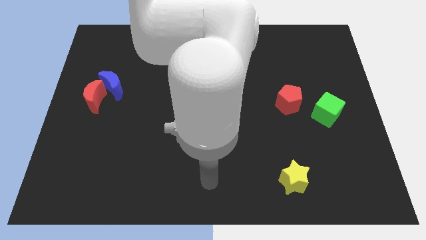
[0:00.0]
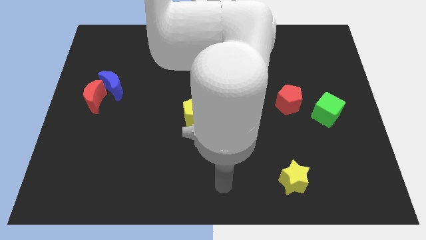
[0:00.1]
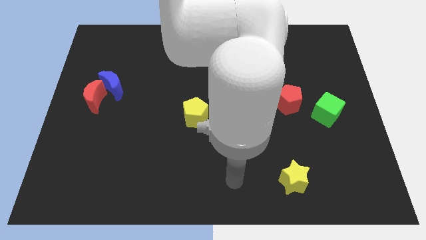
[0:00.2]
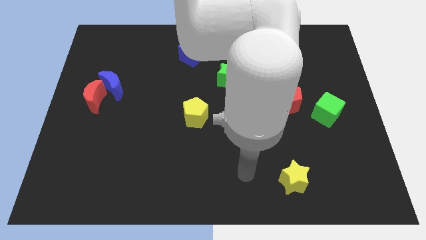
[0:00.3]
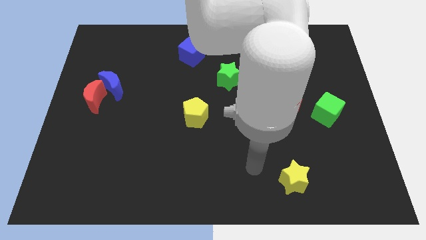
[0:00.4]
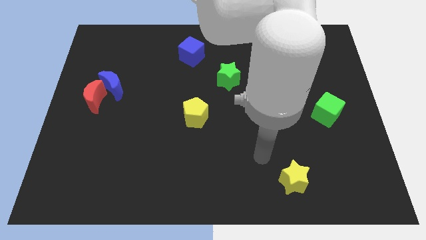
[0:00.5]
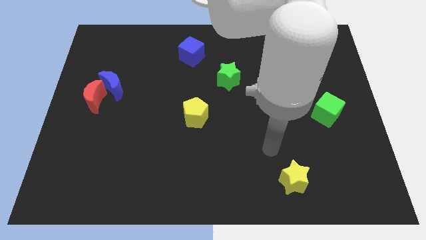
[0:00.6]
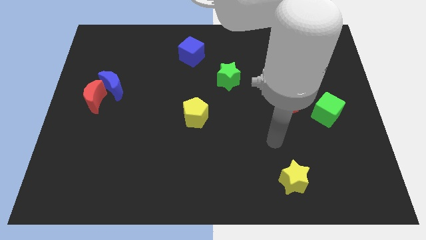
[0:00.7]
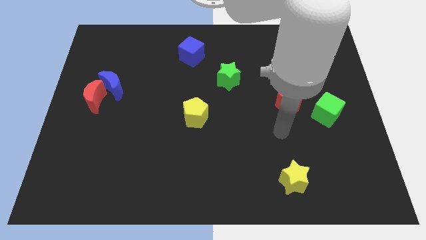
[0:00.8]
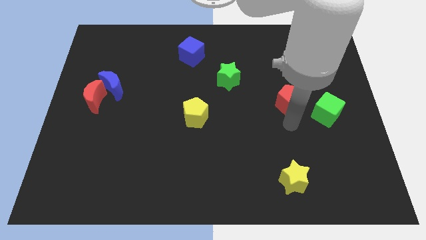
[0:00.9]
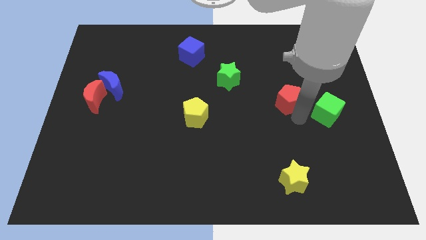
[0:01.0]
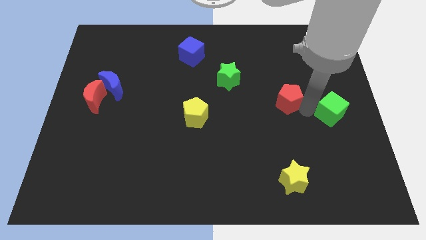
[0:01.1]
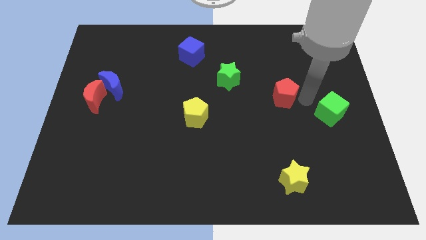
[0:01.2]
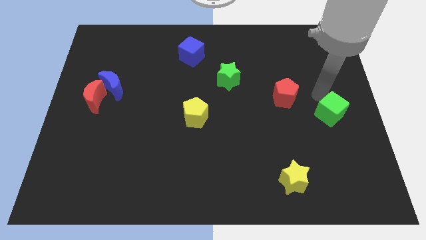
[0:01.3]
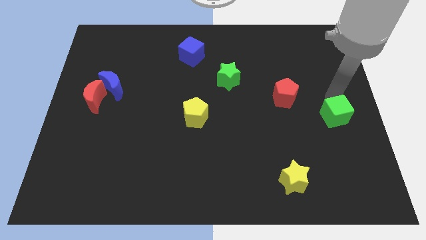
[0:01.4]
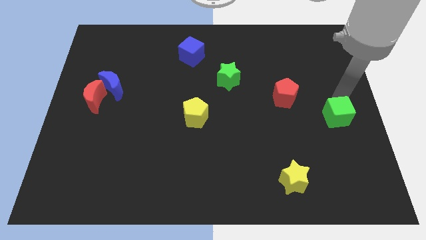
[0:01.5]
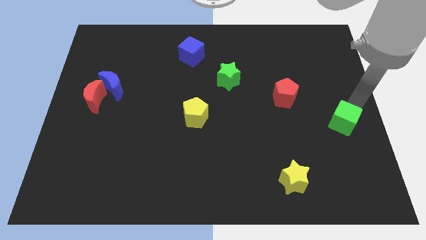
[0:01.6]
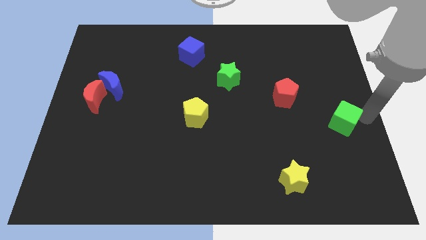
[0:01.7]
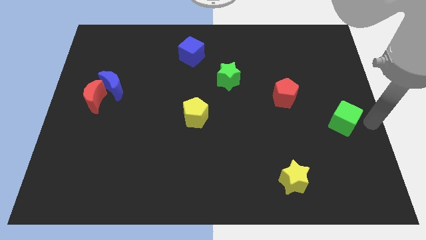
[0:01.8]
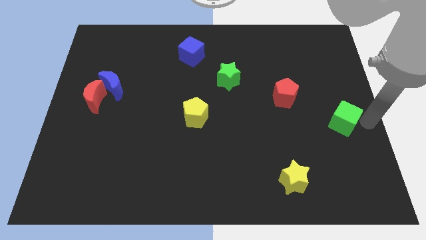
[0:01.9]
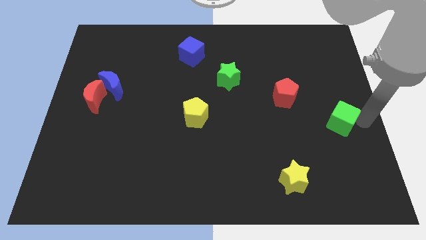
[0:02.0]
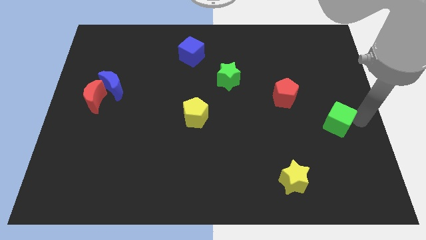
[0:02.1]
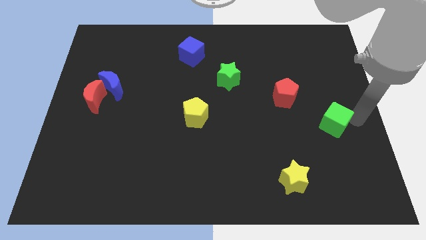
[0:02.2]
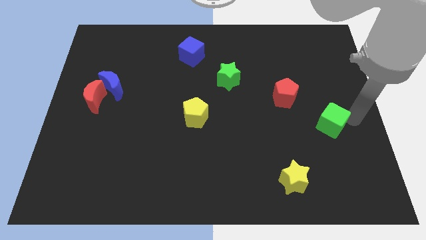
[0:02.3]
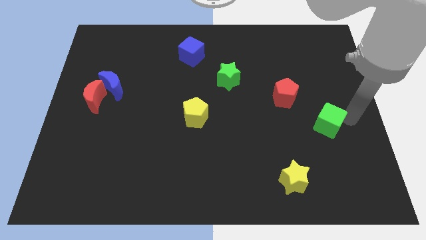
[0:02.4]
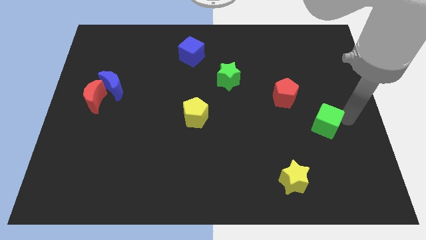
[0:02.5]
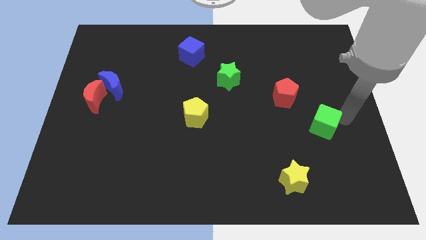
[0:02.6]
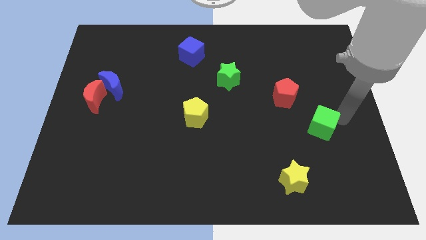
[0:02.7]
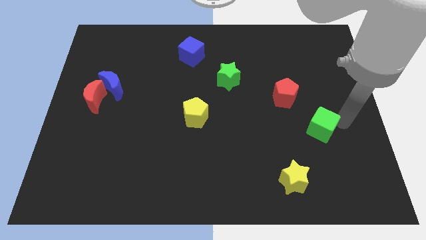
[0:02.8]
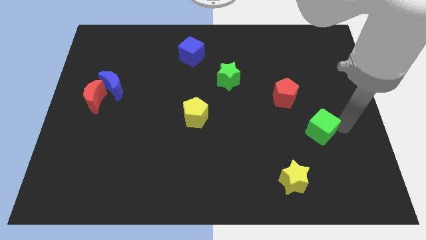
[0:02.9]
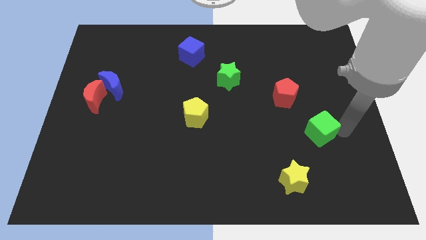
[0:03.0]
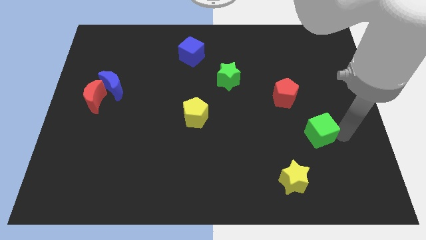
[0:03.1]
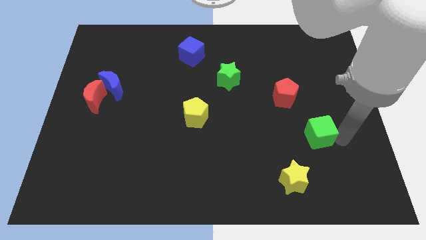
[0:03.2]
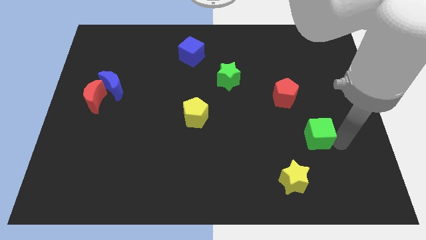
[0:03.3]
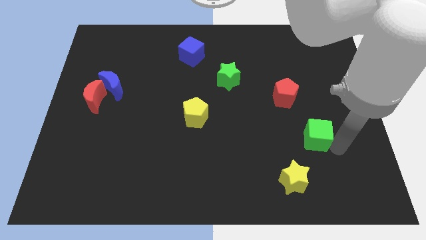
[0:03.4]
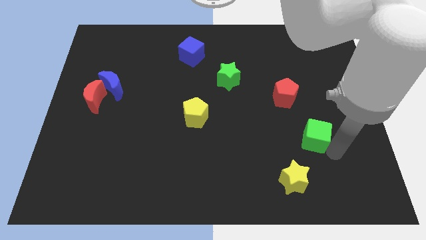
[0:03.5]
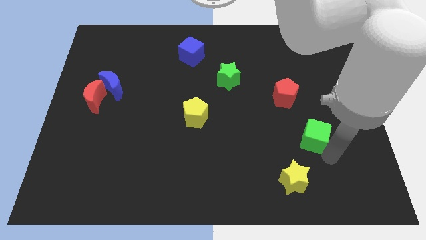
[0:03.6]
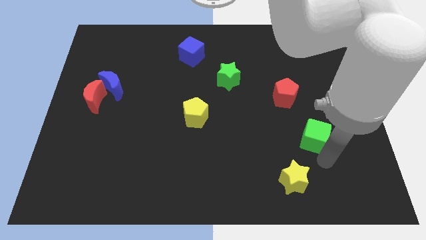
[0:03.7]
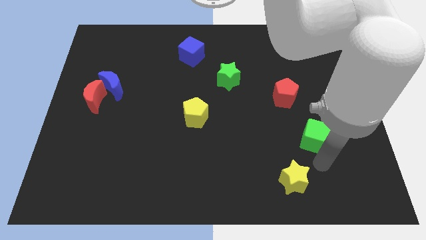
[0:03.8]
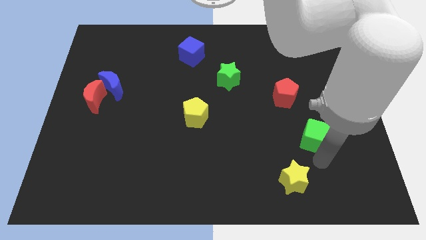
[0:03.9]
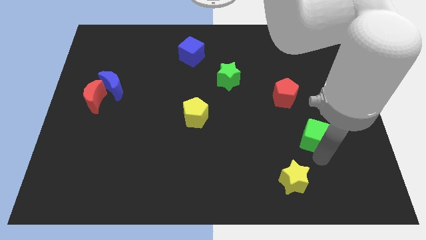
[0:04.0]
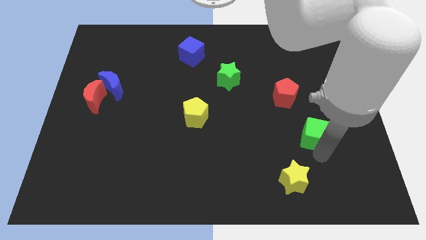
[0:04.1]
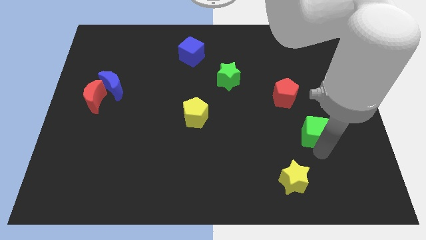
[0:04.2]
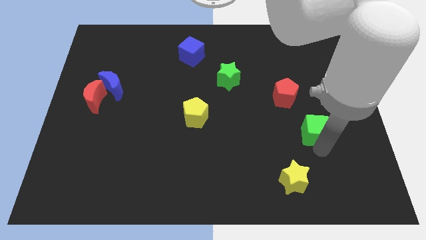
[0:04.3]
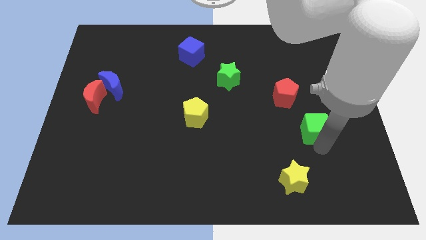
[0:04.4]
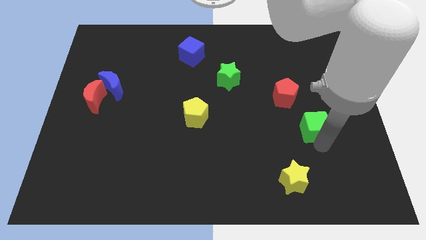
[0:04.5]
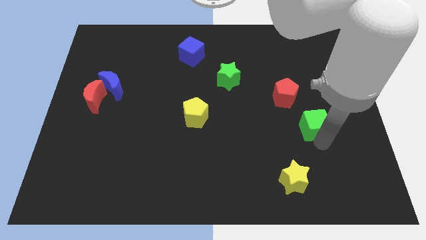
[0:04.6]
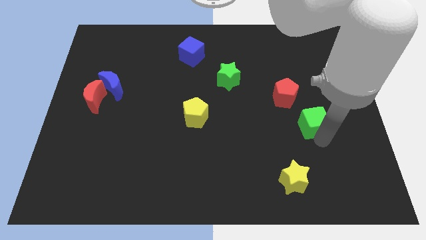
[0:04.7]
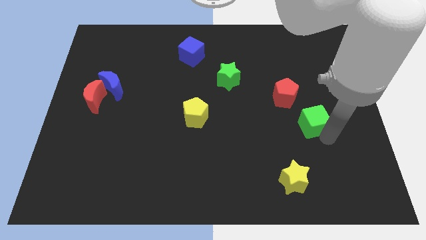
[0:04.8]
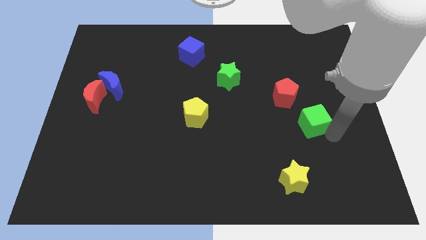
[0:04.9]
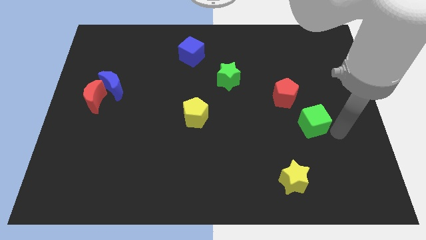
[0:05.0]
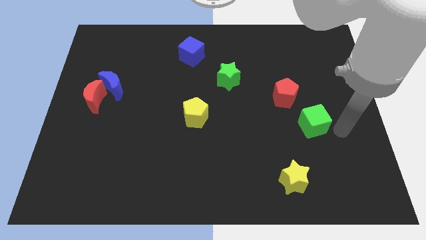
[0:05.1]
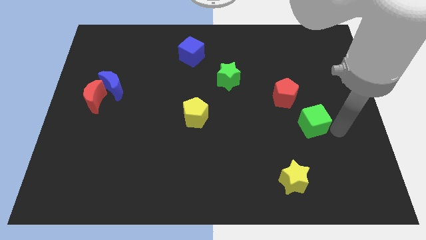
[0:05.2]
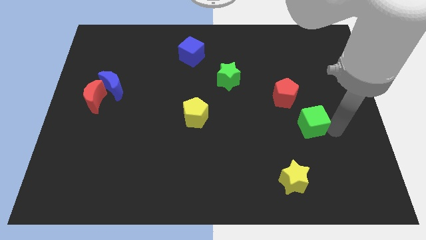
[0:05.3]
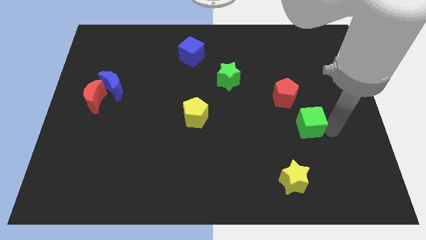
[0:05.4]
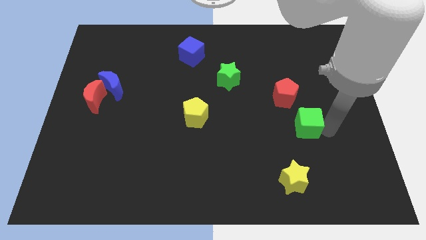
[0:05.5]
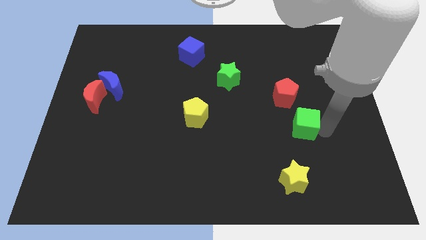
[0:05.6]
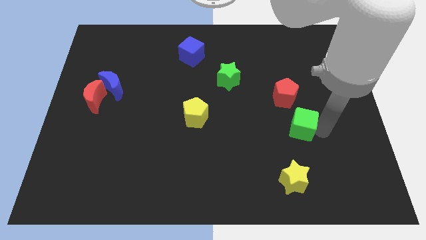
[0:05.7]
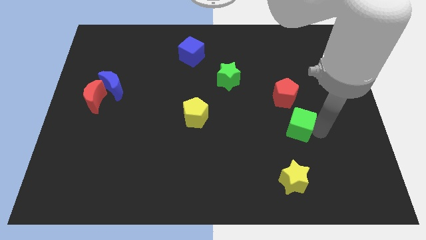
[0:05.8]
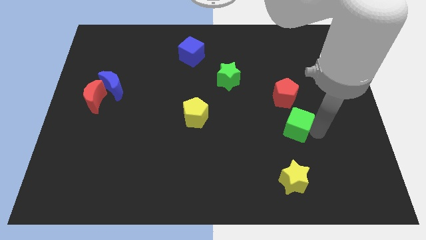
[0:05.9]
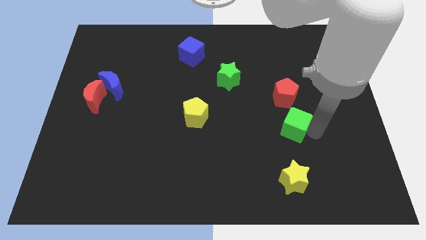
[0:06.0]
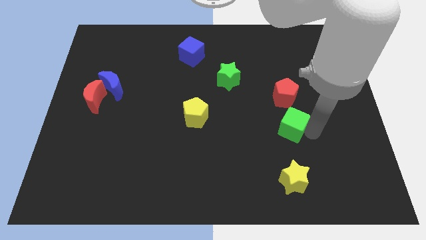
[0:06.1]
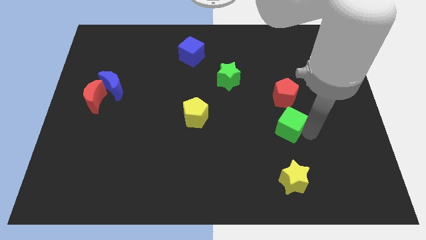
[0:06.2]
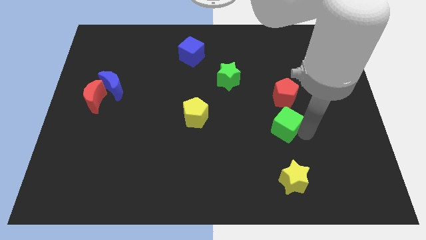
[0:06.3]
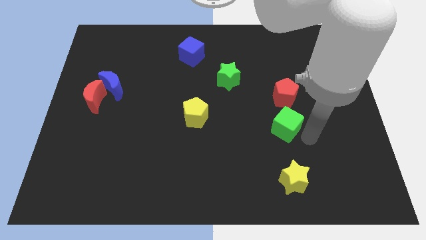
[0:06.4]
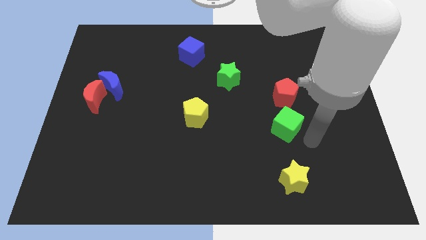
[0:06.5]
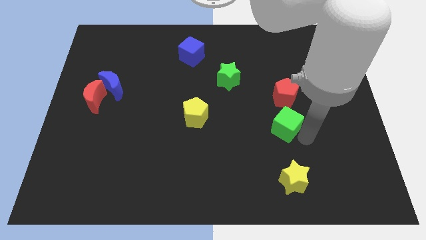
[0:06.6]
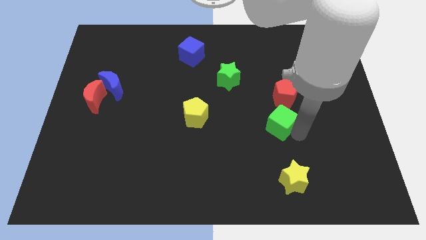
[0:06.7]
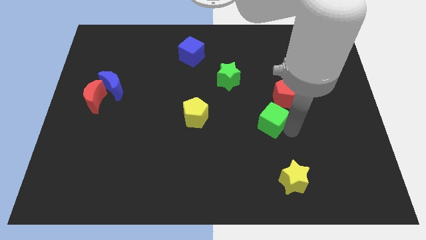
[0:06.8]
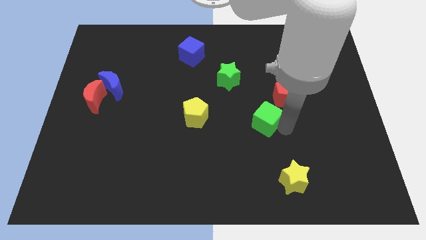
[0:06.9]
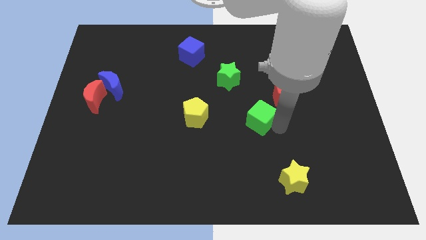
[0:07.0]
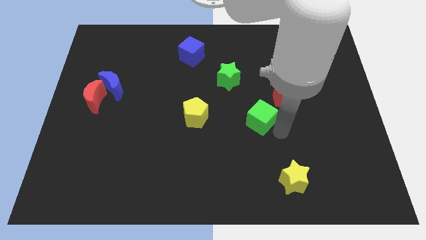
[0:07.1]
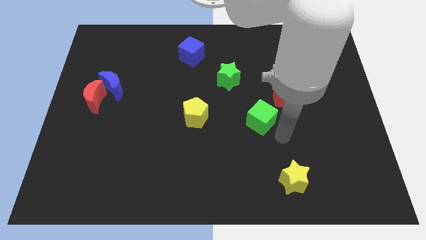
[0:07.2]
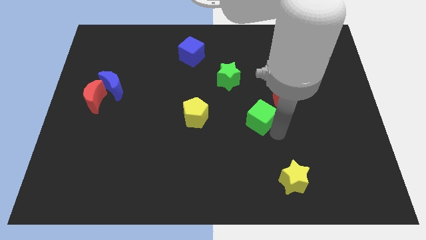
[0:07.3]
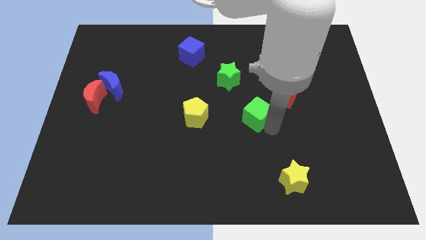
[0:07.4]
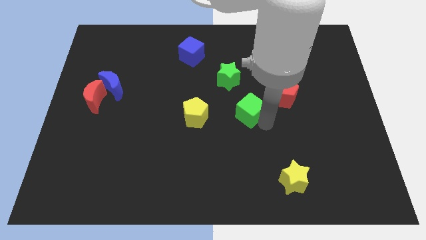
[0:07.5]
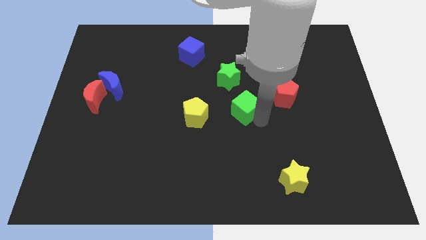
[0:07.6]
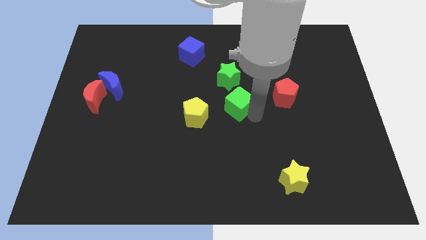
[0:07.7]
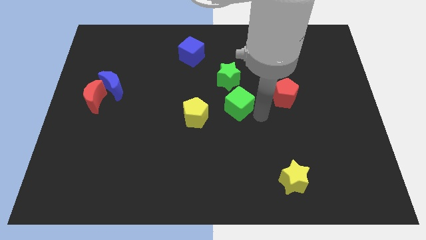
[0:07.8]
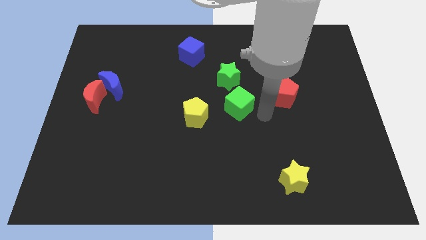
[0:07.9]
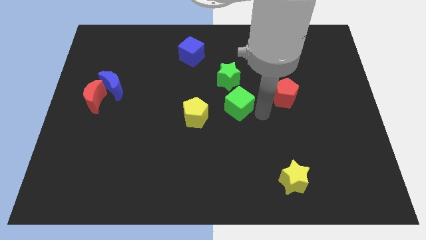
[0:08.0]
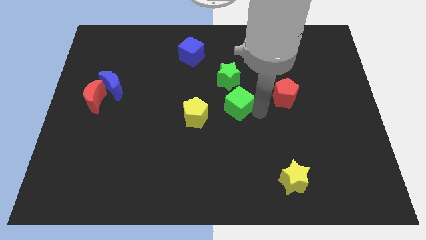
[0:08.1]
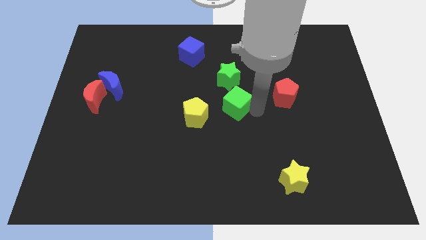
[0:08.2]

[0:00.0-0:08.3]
put the green cube to the top right of the yellow pentagon
